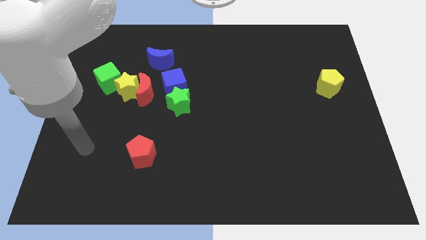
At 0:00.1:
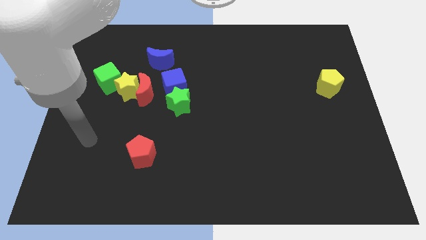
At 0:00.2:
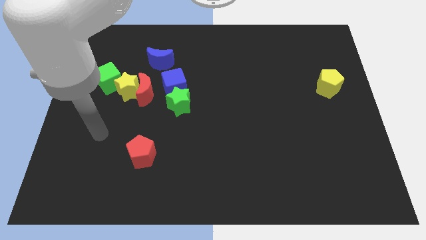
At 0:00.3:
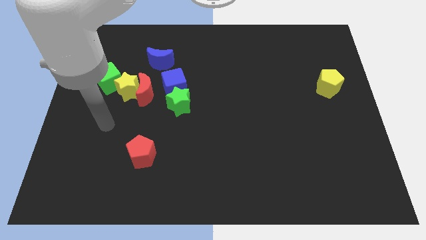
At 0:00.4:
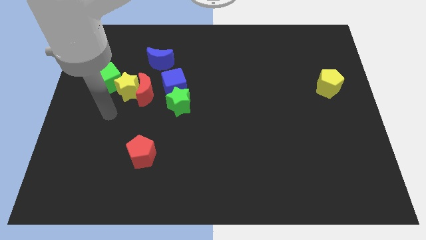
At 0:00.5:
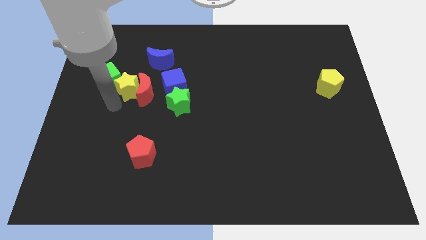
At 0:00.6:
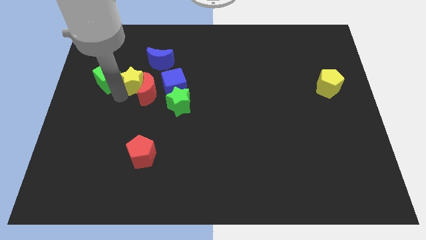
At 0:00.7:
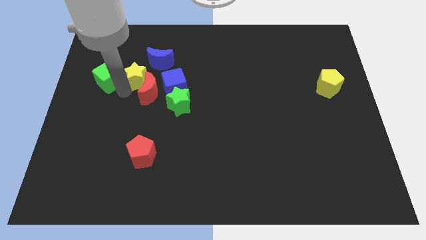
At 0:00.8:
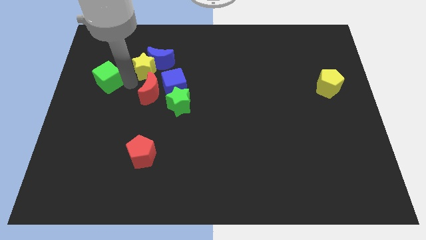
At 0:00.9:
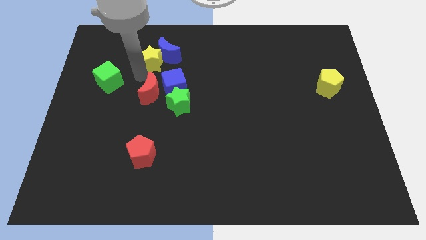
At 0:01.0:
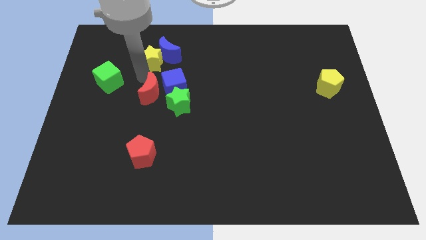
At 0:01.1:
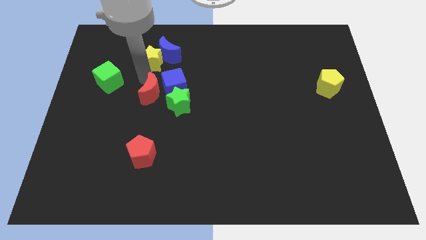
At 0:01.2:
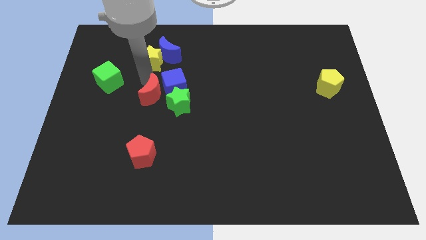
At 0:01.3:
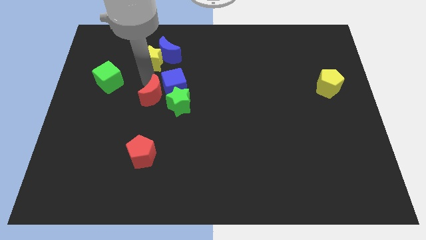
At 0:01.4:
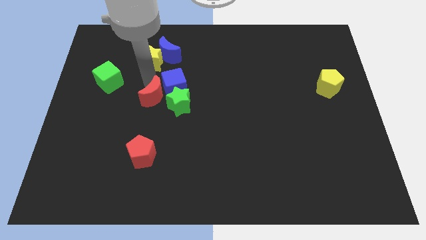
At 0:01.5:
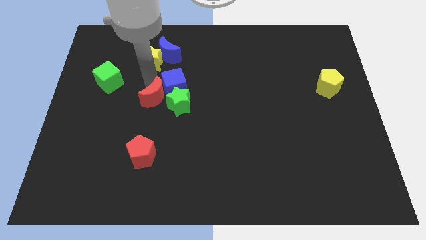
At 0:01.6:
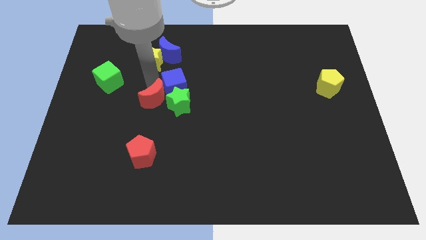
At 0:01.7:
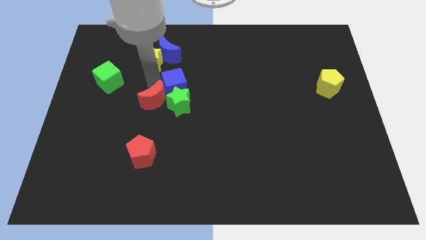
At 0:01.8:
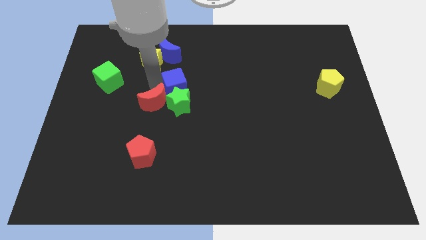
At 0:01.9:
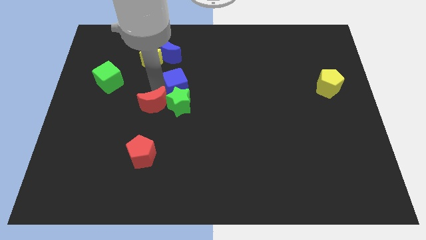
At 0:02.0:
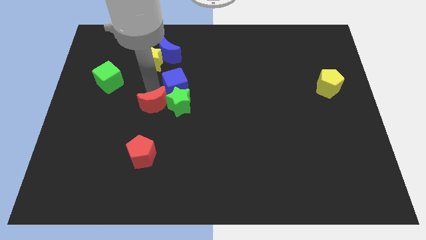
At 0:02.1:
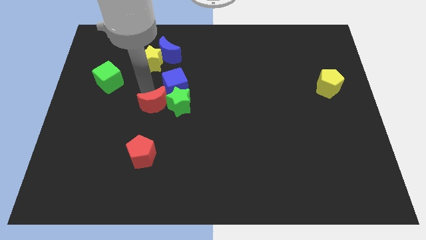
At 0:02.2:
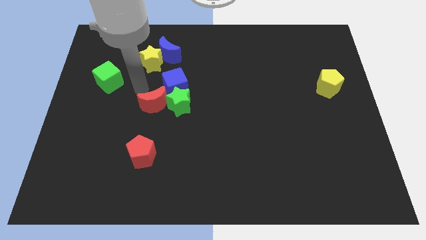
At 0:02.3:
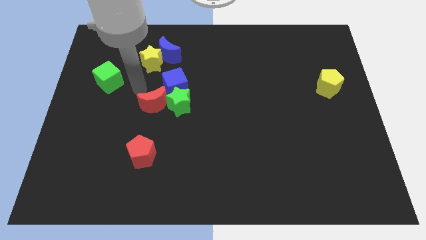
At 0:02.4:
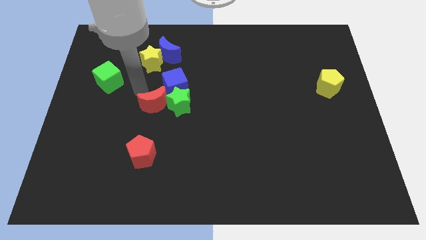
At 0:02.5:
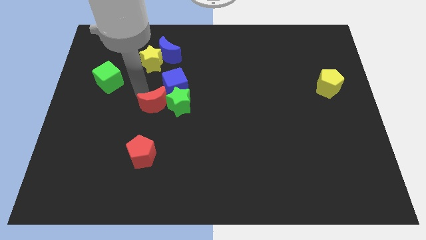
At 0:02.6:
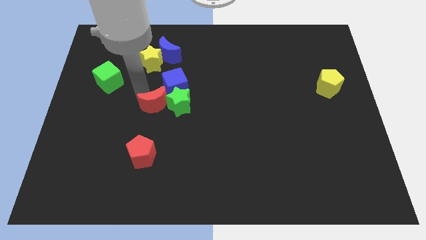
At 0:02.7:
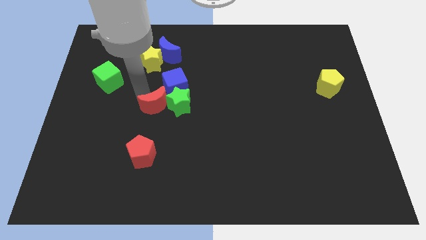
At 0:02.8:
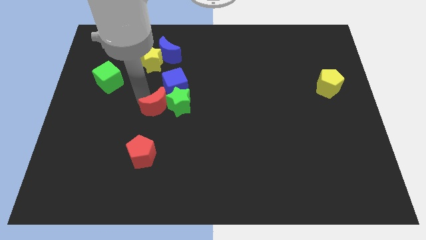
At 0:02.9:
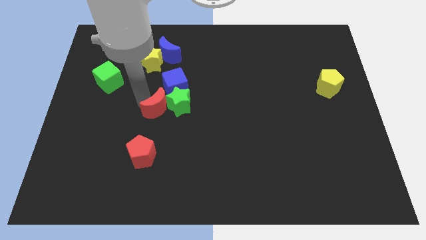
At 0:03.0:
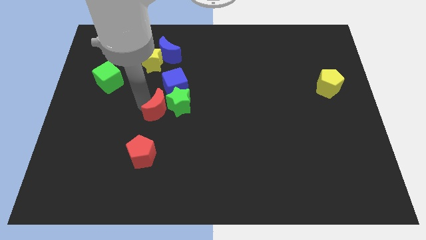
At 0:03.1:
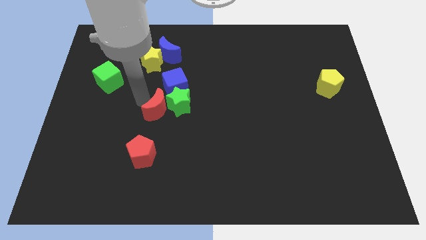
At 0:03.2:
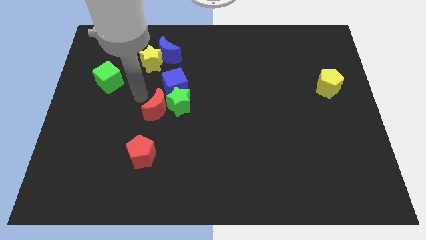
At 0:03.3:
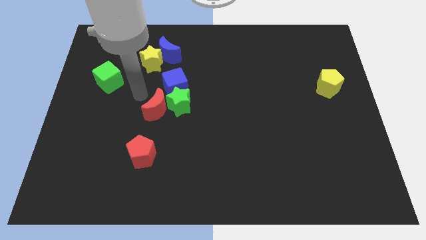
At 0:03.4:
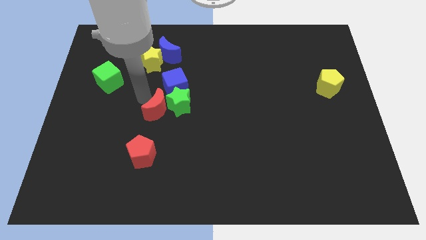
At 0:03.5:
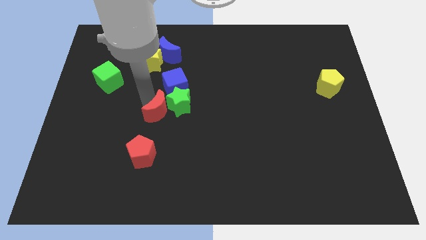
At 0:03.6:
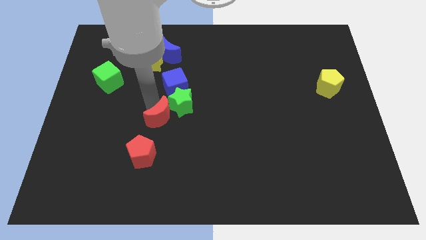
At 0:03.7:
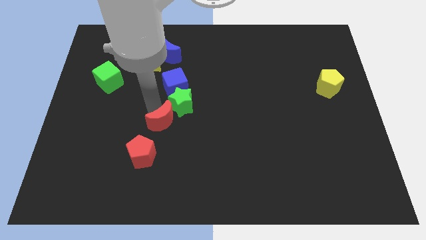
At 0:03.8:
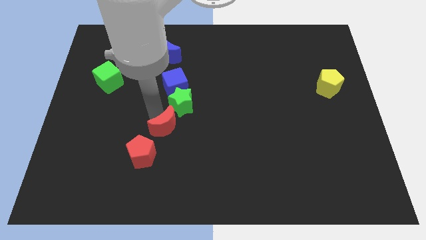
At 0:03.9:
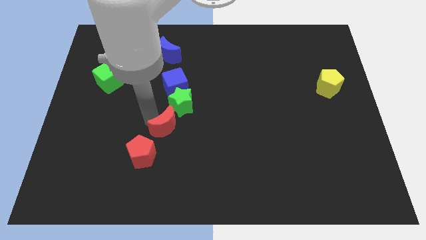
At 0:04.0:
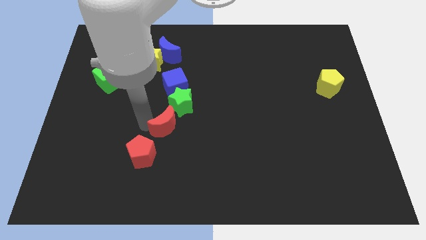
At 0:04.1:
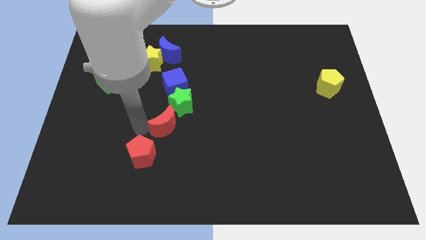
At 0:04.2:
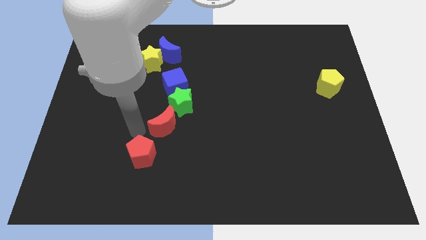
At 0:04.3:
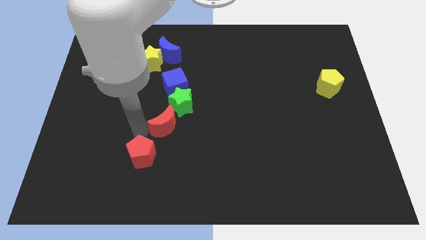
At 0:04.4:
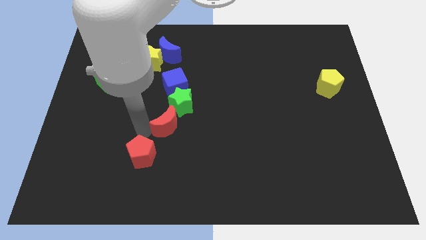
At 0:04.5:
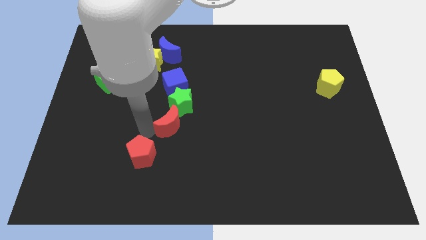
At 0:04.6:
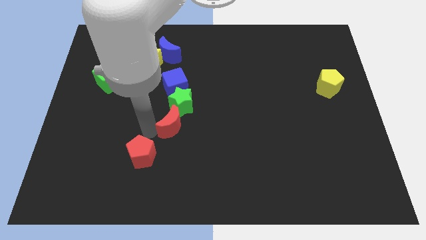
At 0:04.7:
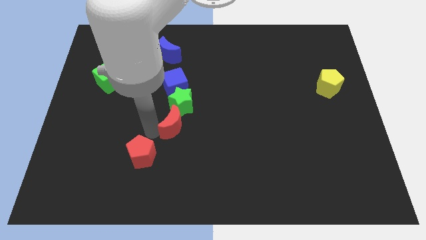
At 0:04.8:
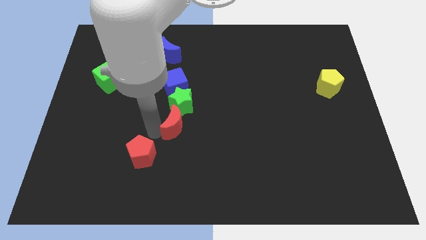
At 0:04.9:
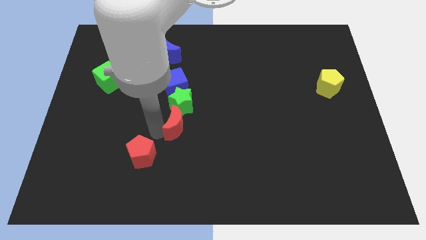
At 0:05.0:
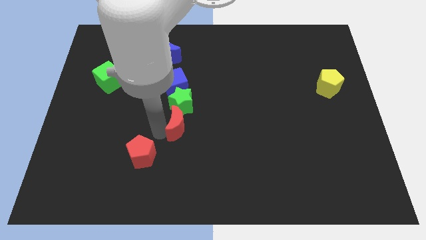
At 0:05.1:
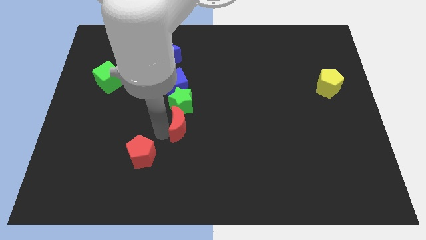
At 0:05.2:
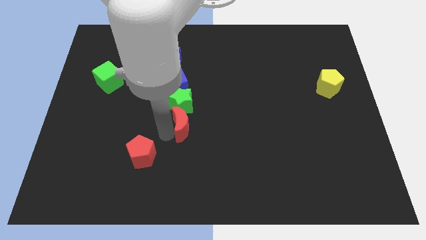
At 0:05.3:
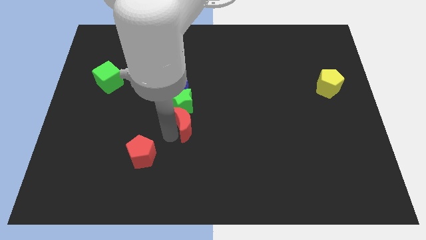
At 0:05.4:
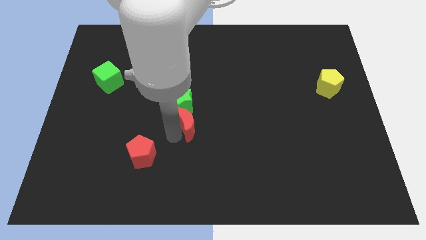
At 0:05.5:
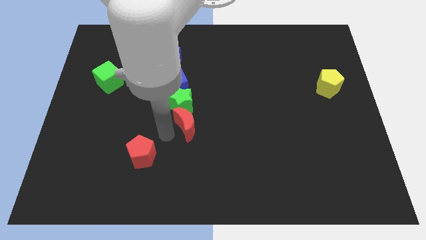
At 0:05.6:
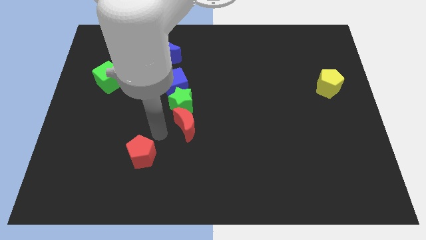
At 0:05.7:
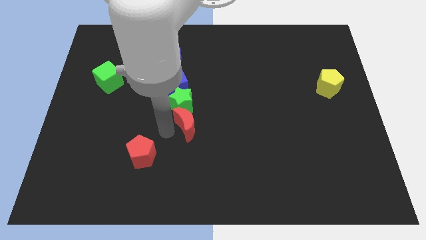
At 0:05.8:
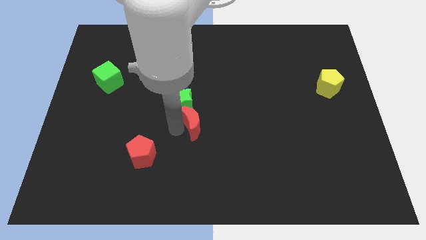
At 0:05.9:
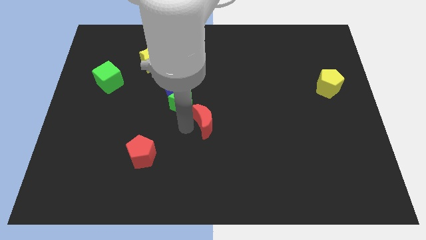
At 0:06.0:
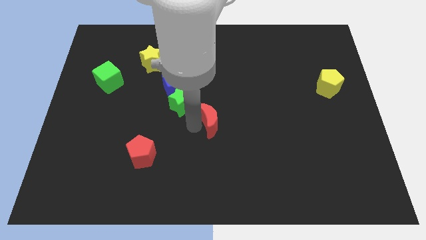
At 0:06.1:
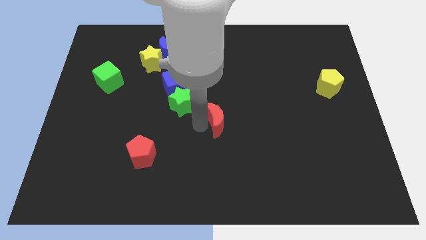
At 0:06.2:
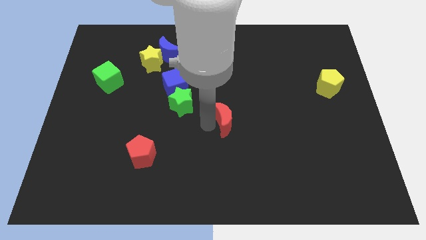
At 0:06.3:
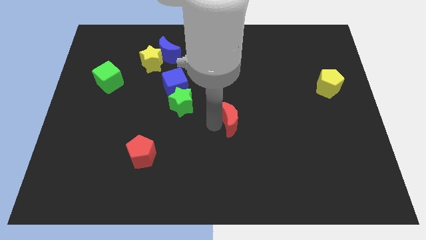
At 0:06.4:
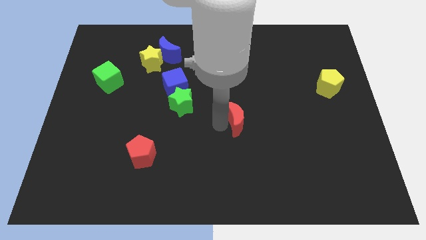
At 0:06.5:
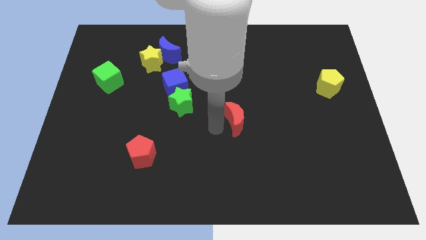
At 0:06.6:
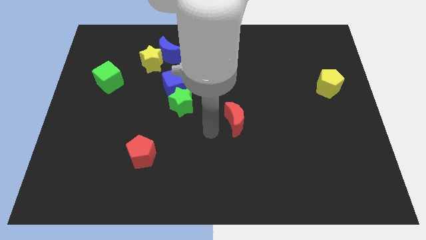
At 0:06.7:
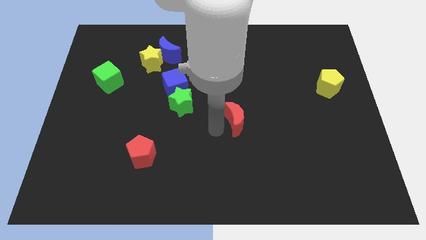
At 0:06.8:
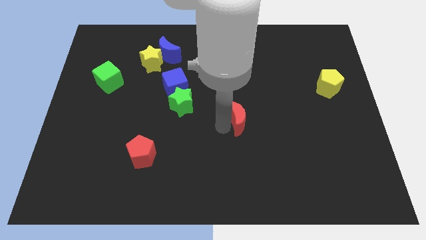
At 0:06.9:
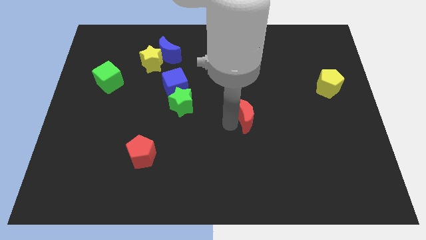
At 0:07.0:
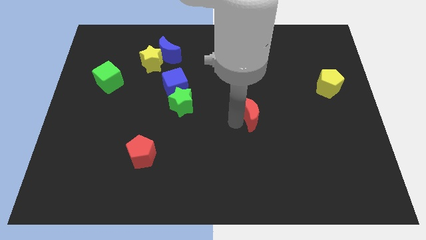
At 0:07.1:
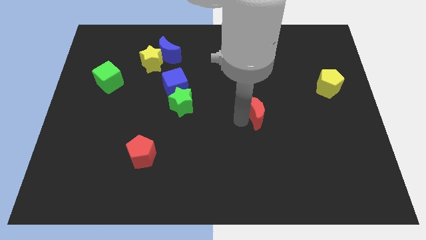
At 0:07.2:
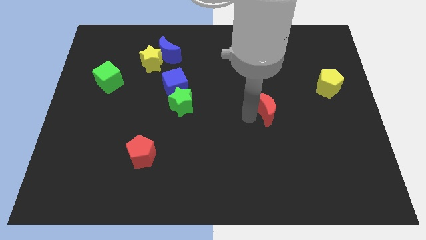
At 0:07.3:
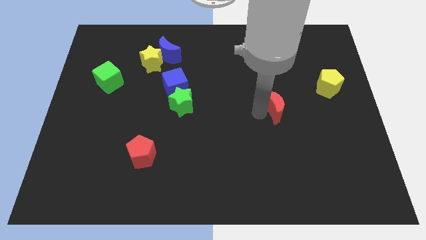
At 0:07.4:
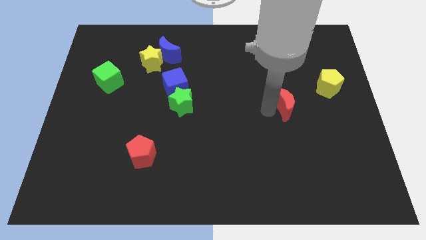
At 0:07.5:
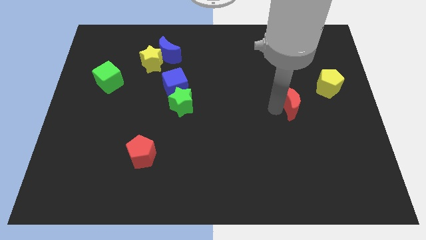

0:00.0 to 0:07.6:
slide the red moon to the bottom left of the yellow pentagon

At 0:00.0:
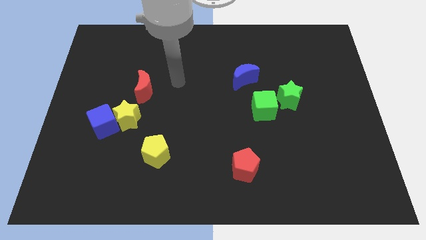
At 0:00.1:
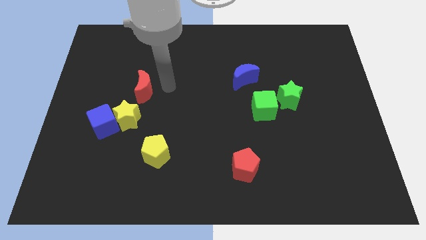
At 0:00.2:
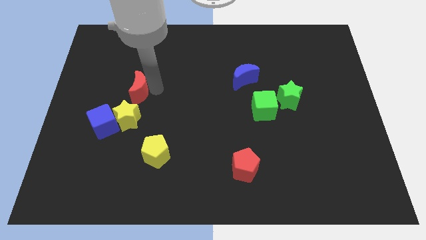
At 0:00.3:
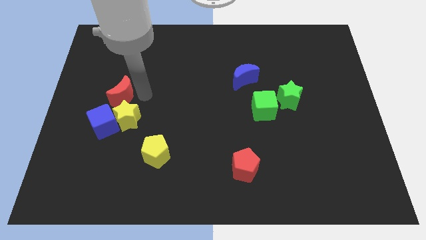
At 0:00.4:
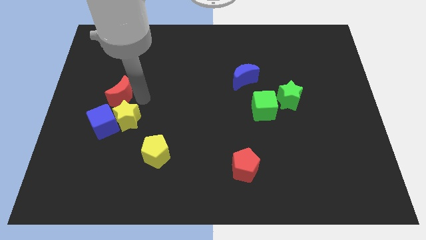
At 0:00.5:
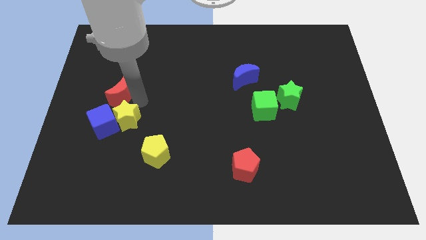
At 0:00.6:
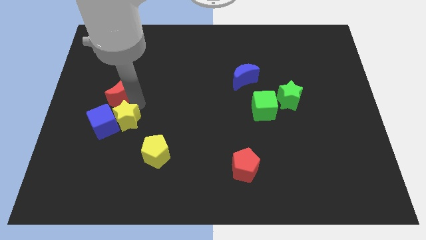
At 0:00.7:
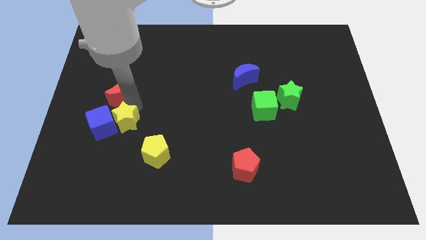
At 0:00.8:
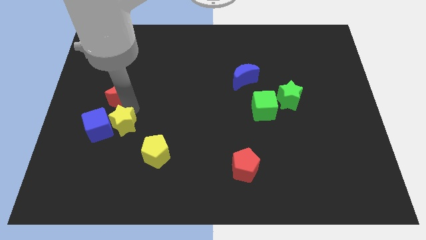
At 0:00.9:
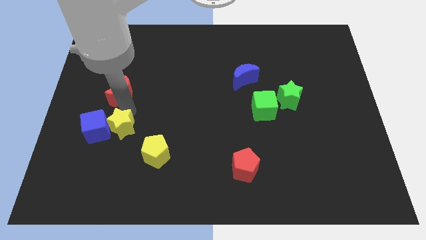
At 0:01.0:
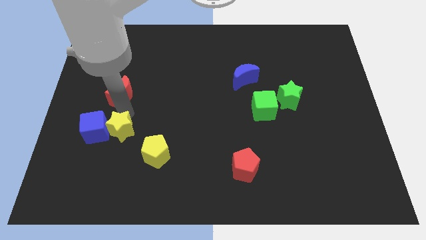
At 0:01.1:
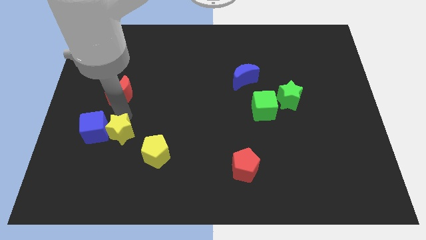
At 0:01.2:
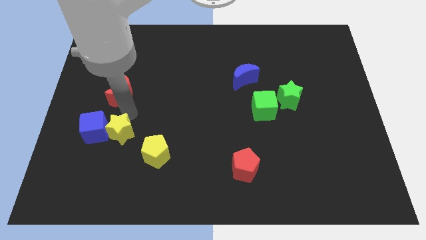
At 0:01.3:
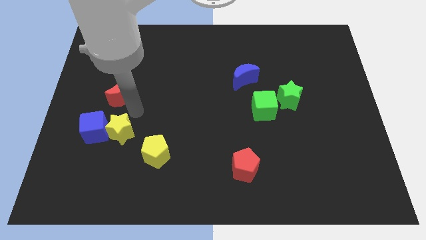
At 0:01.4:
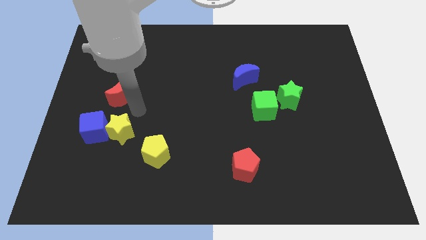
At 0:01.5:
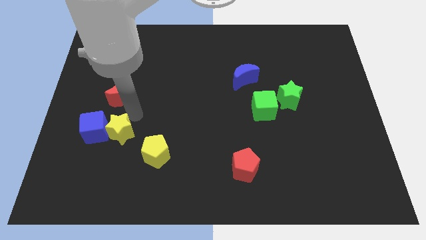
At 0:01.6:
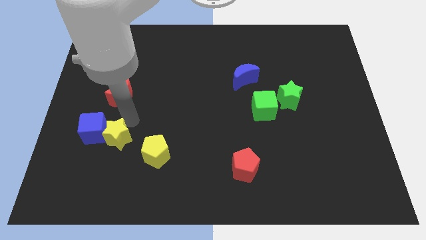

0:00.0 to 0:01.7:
slide the yellow star to the left of the yellow pentagon
